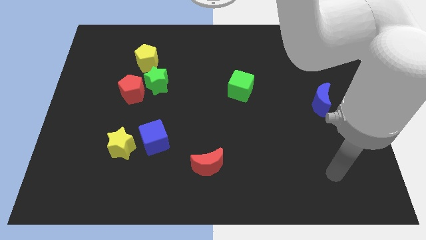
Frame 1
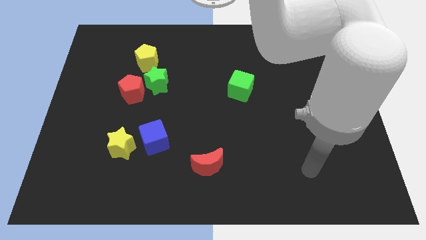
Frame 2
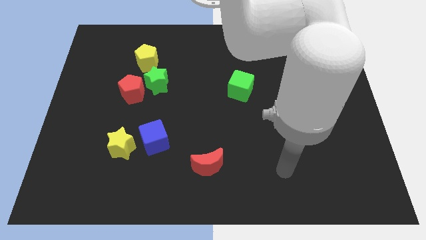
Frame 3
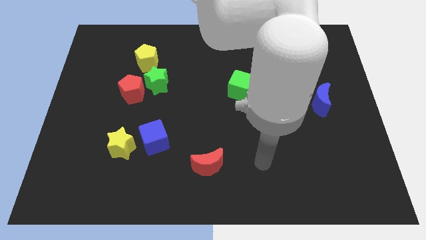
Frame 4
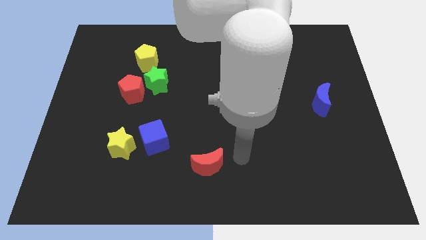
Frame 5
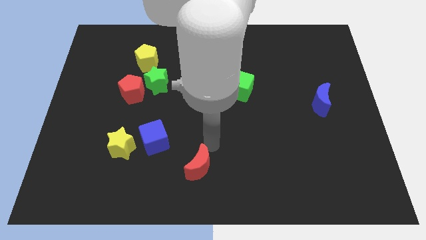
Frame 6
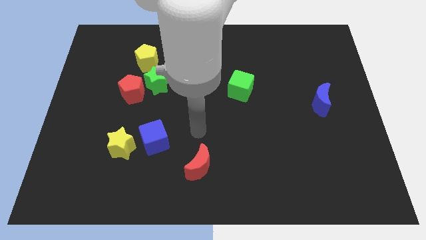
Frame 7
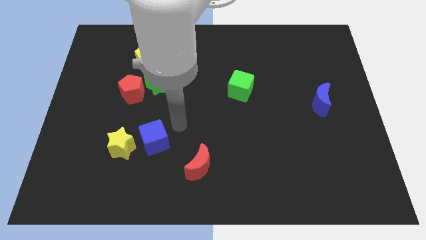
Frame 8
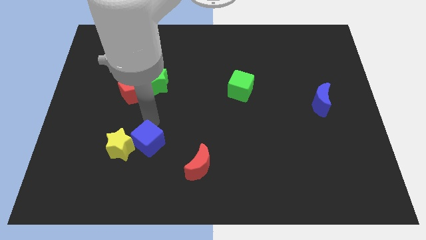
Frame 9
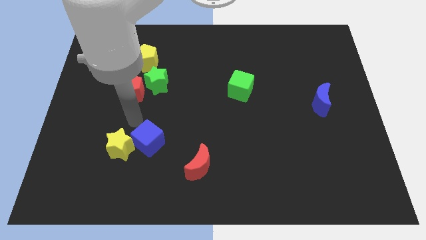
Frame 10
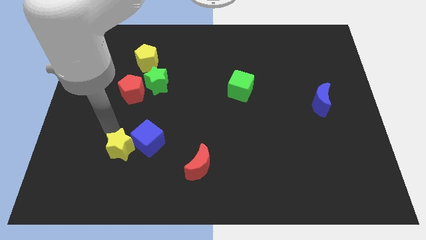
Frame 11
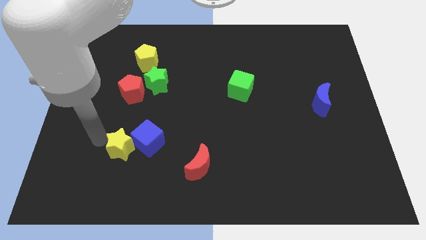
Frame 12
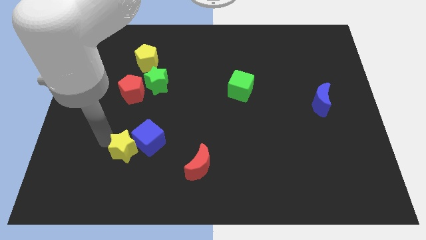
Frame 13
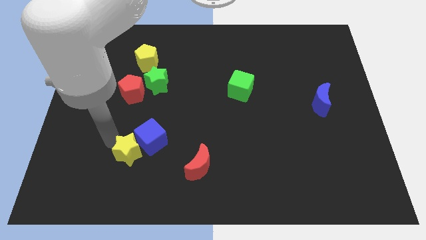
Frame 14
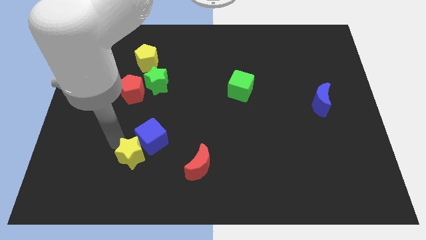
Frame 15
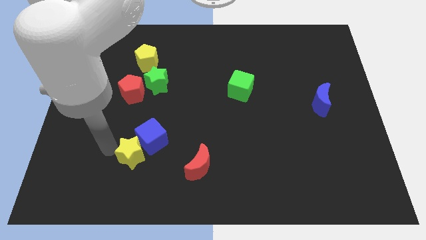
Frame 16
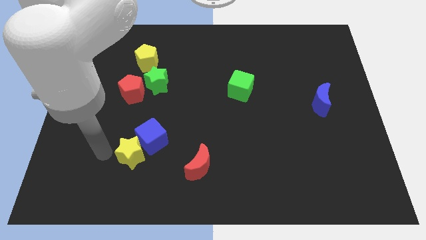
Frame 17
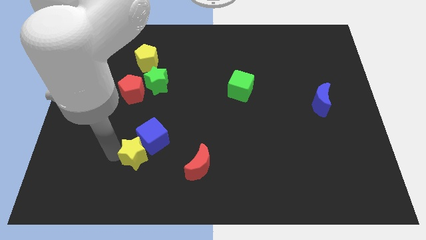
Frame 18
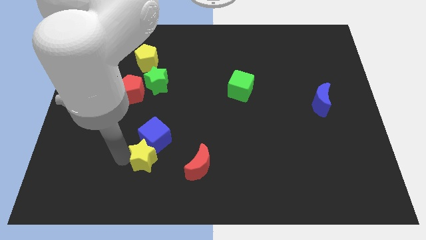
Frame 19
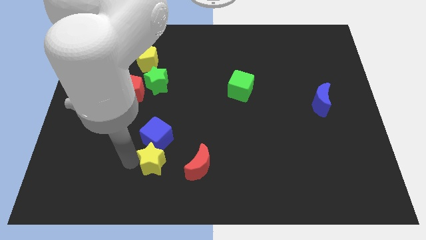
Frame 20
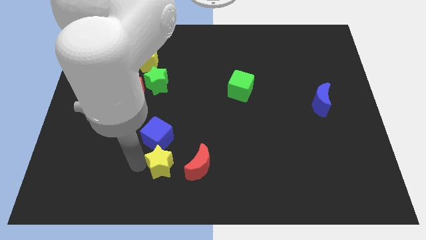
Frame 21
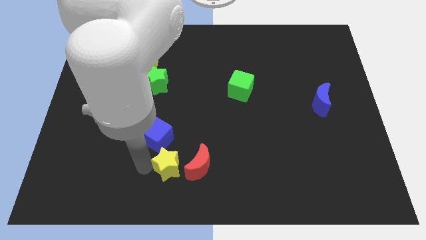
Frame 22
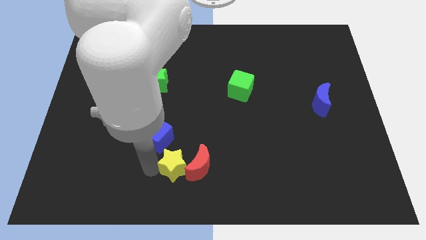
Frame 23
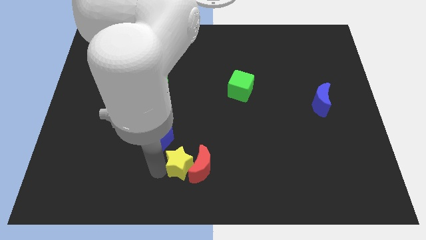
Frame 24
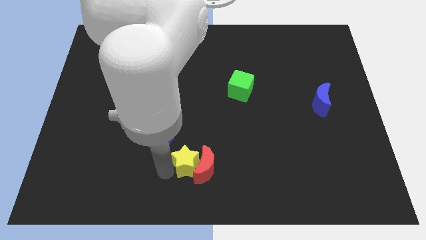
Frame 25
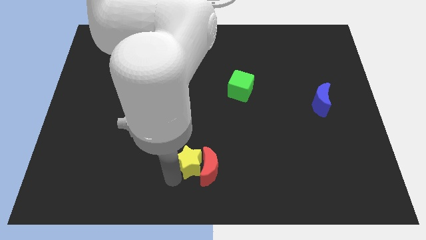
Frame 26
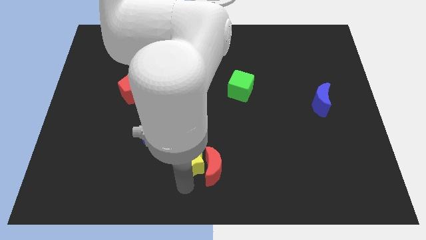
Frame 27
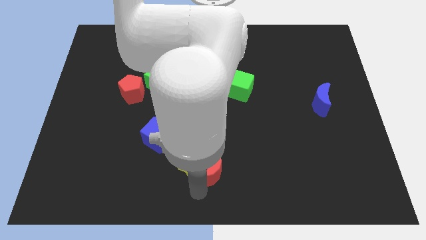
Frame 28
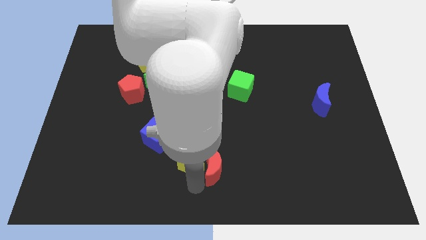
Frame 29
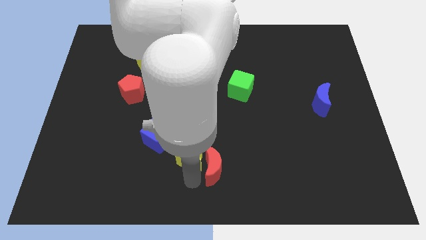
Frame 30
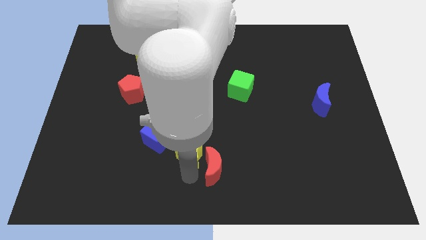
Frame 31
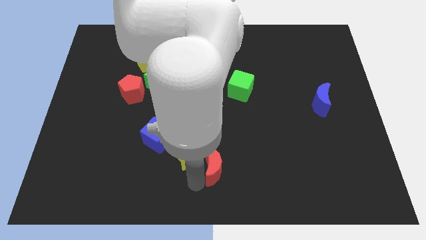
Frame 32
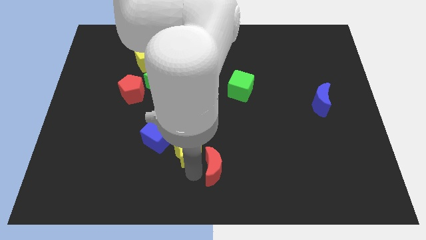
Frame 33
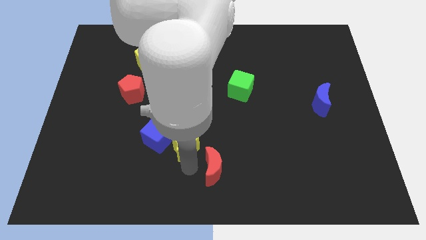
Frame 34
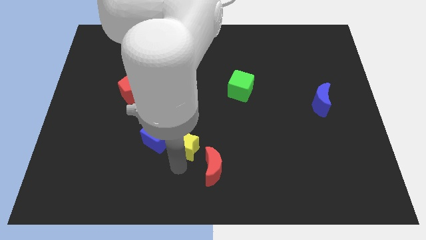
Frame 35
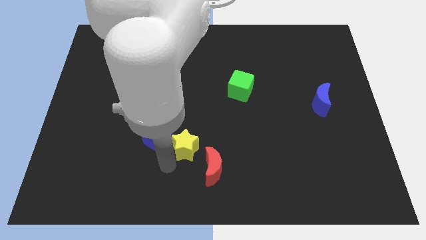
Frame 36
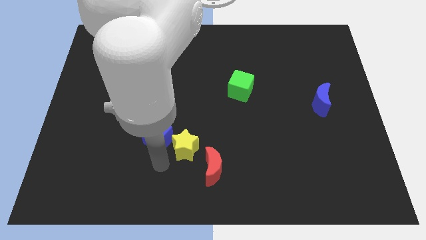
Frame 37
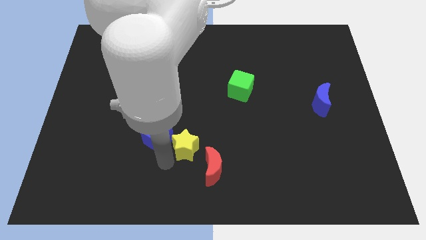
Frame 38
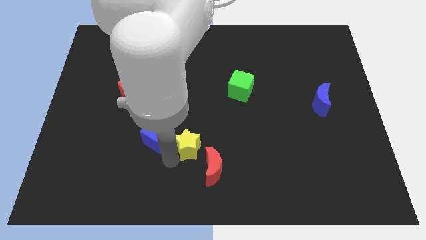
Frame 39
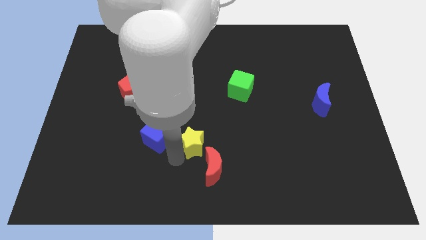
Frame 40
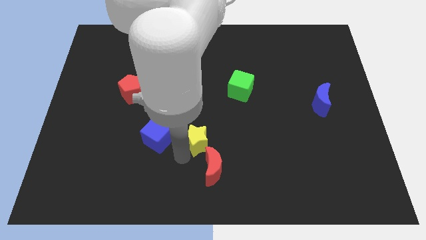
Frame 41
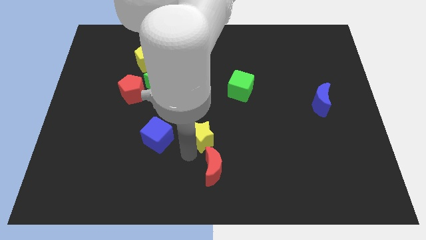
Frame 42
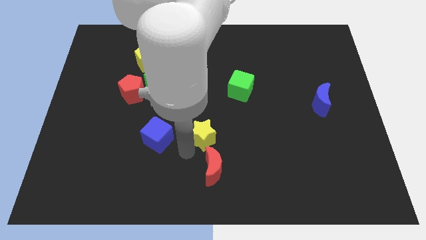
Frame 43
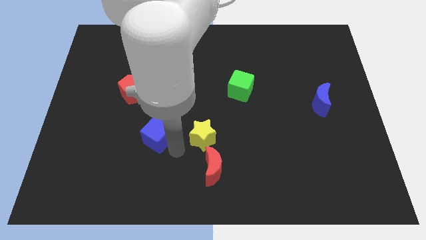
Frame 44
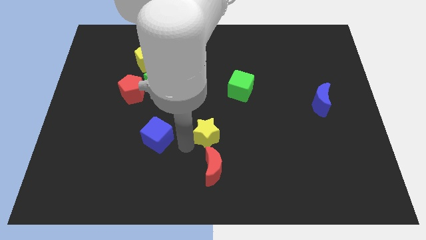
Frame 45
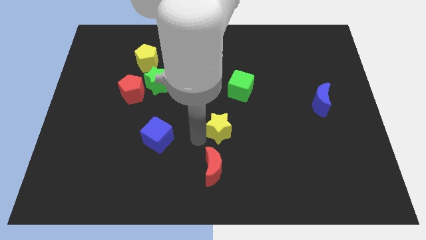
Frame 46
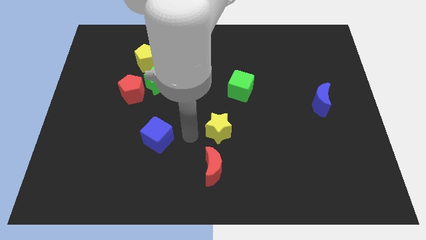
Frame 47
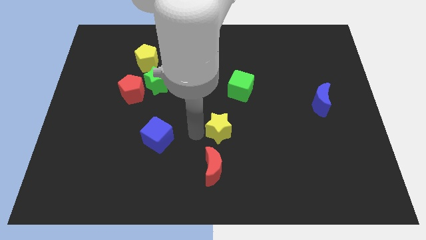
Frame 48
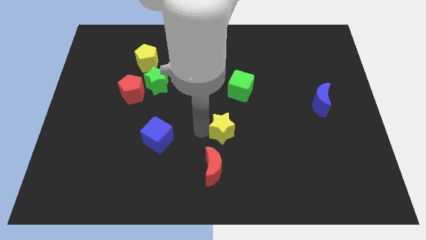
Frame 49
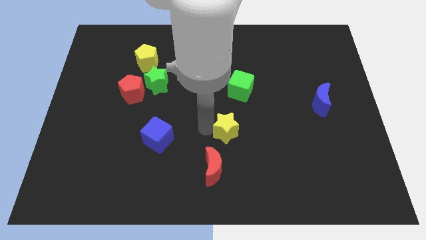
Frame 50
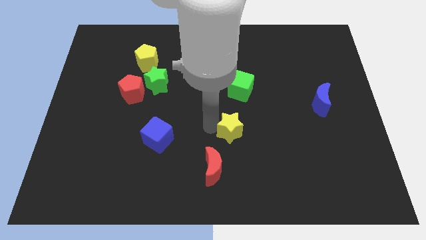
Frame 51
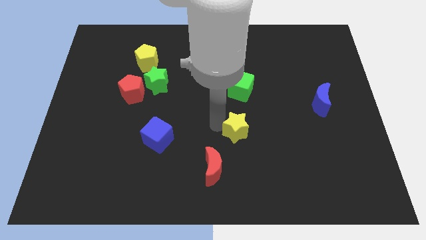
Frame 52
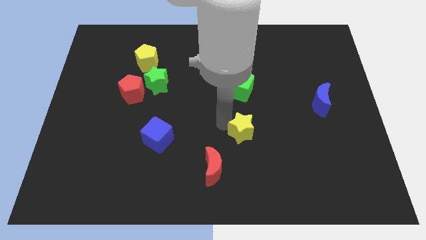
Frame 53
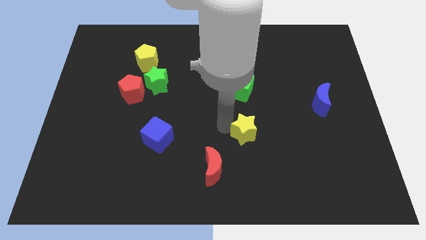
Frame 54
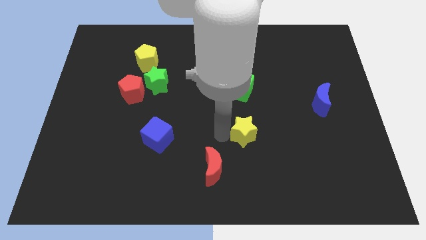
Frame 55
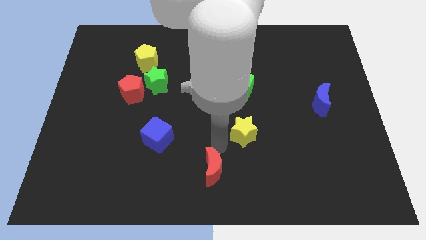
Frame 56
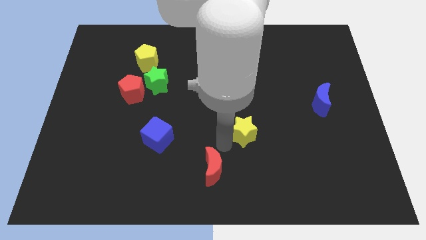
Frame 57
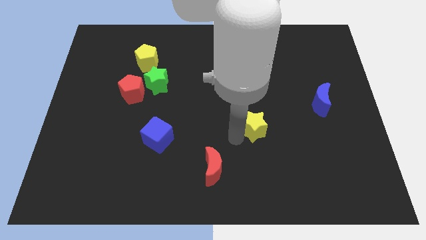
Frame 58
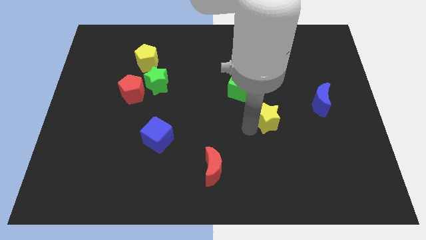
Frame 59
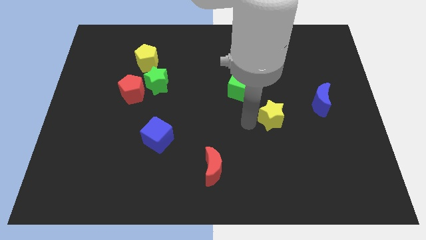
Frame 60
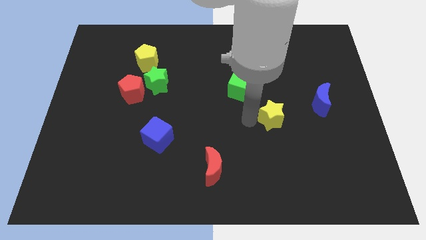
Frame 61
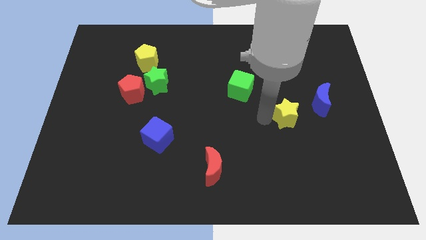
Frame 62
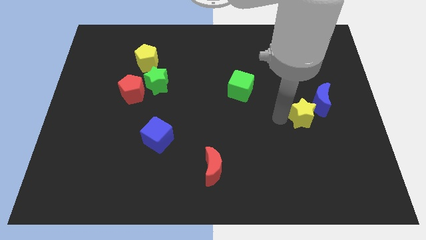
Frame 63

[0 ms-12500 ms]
slide the yellow star next to the blue moon
